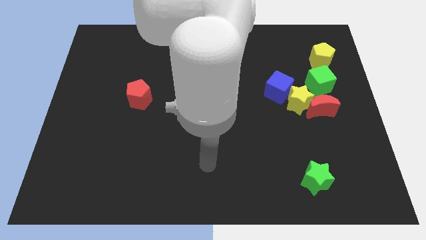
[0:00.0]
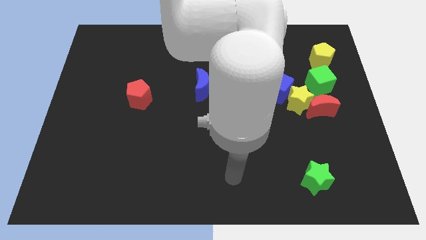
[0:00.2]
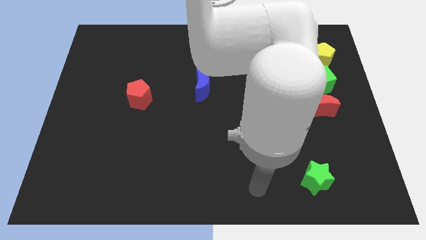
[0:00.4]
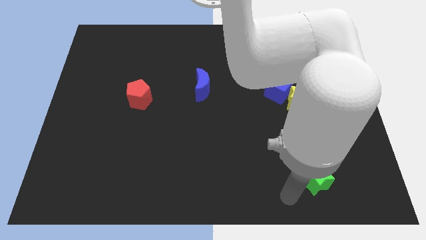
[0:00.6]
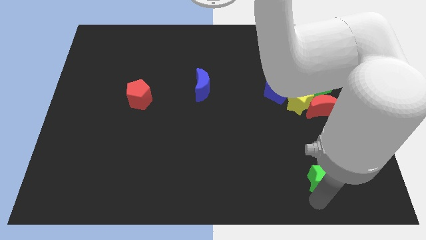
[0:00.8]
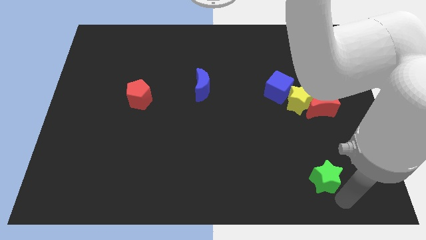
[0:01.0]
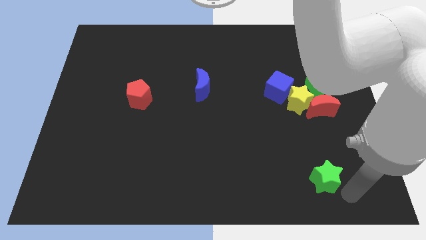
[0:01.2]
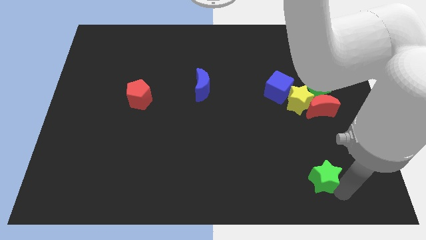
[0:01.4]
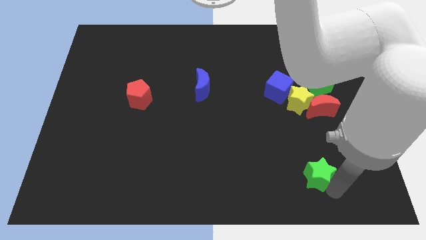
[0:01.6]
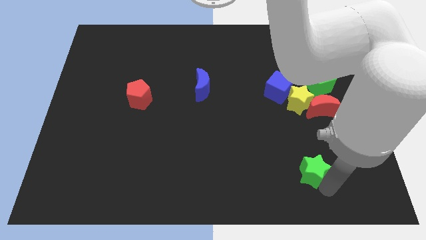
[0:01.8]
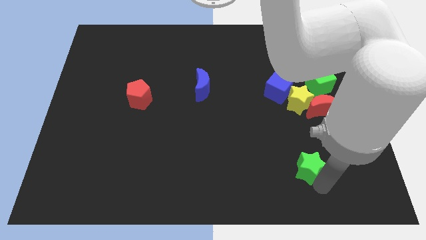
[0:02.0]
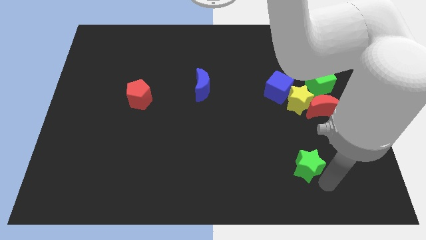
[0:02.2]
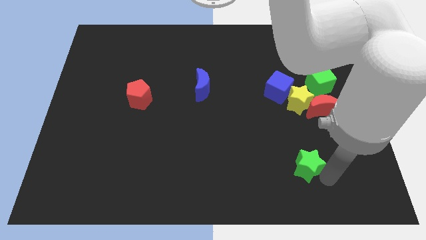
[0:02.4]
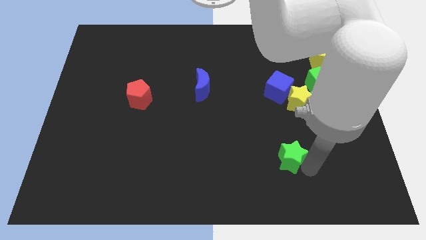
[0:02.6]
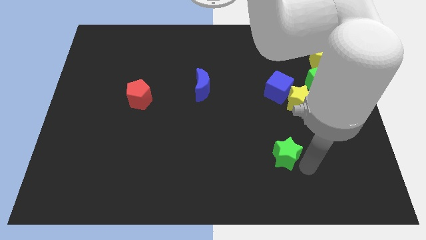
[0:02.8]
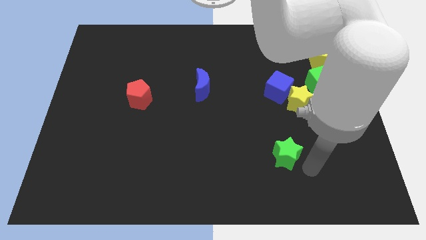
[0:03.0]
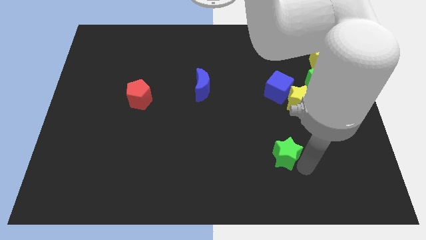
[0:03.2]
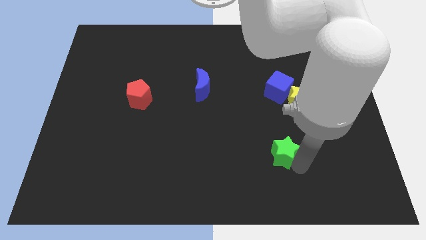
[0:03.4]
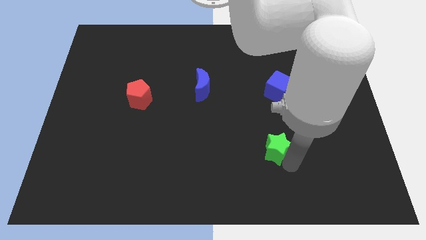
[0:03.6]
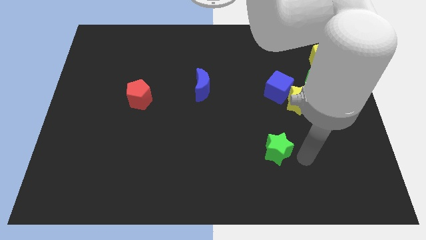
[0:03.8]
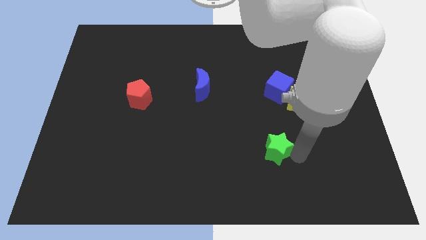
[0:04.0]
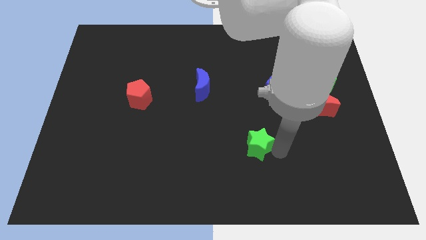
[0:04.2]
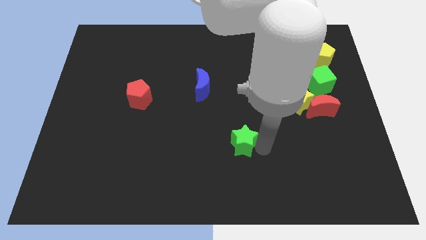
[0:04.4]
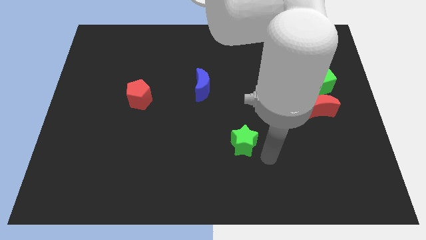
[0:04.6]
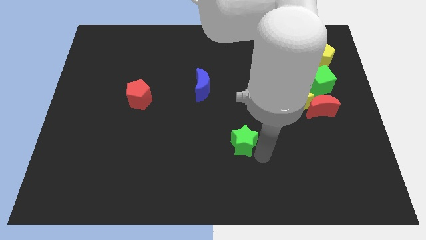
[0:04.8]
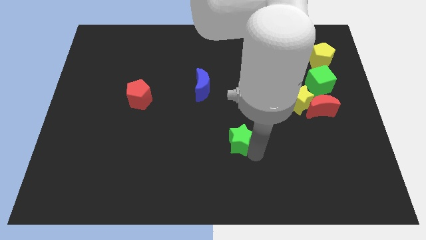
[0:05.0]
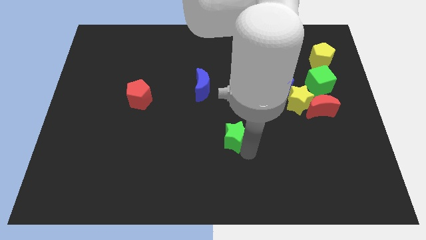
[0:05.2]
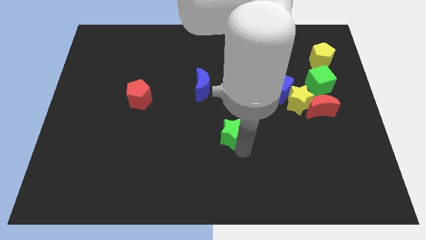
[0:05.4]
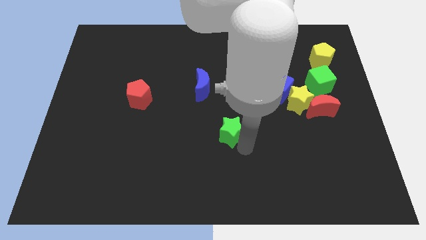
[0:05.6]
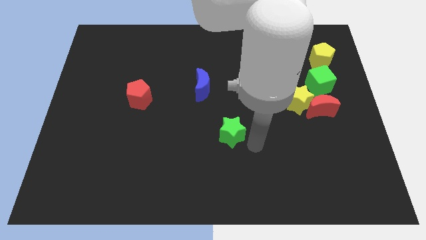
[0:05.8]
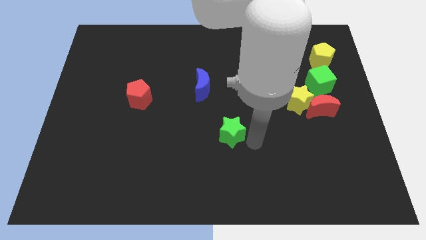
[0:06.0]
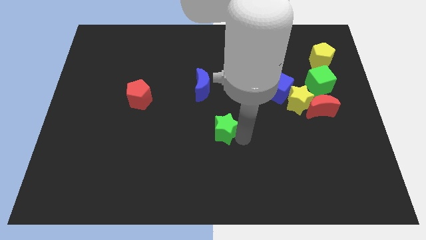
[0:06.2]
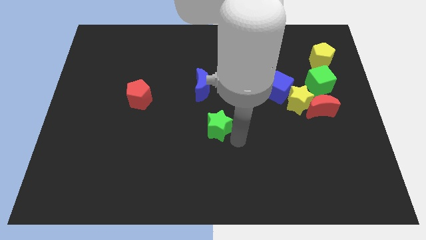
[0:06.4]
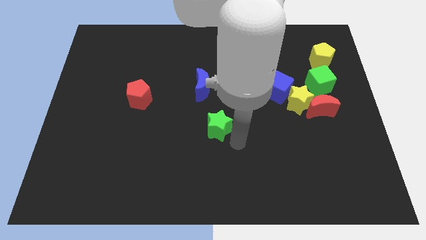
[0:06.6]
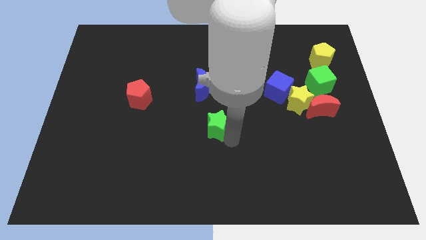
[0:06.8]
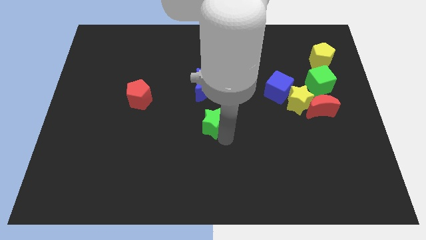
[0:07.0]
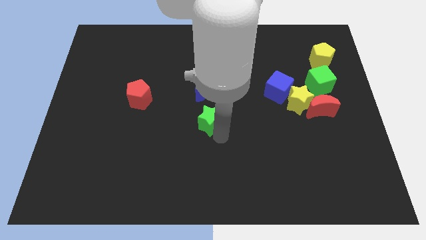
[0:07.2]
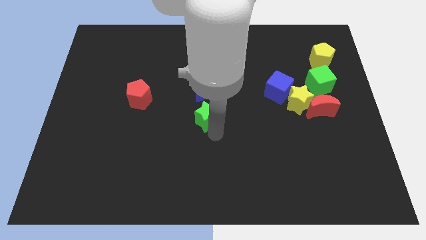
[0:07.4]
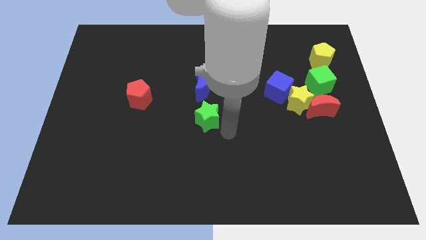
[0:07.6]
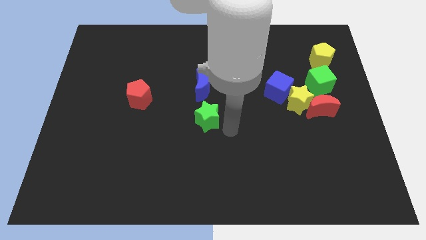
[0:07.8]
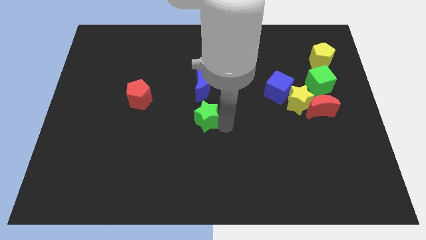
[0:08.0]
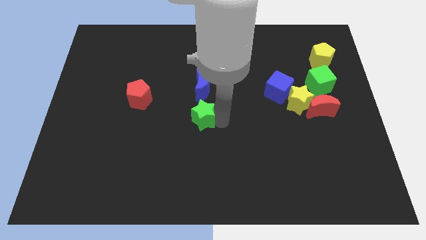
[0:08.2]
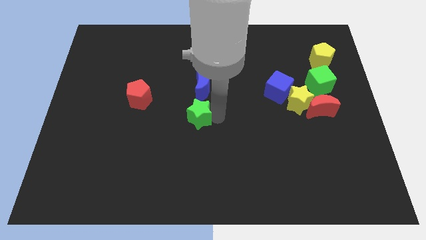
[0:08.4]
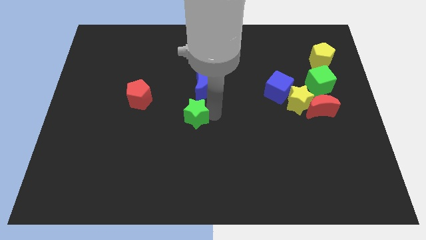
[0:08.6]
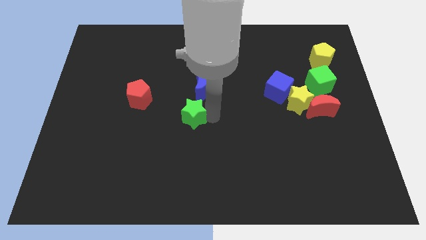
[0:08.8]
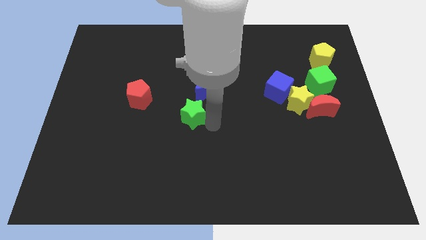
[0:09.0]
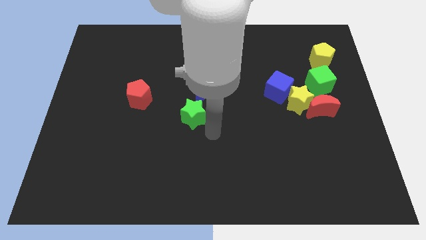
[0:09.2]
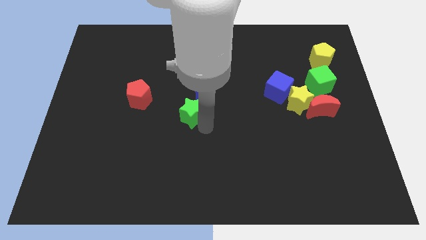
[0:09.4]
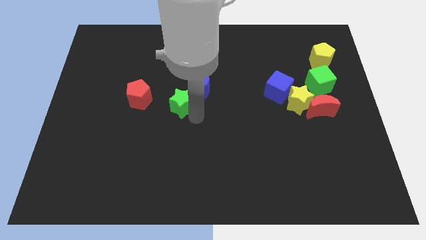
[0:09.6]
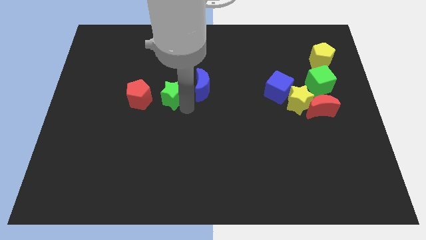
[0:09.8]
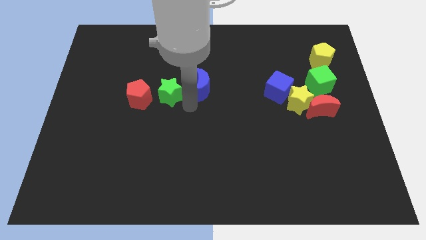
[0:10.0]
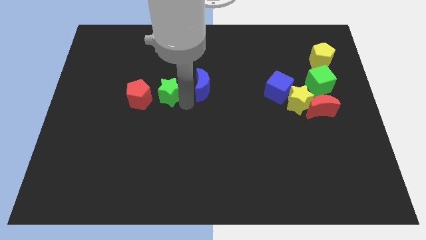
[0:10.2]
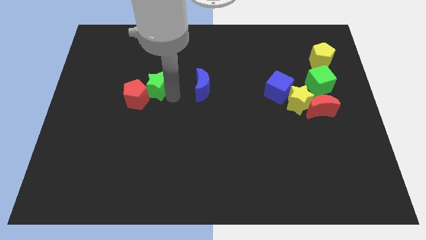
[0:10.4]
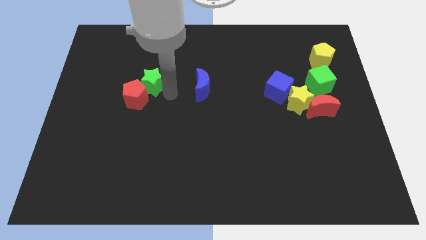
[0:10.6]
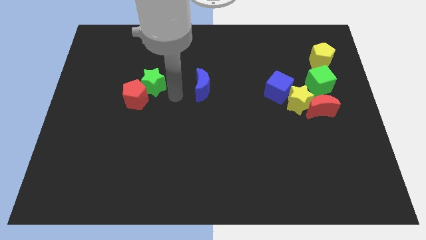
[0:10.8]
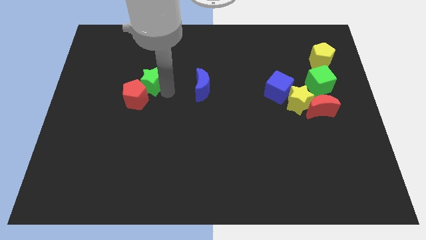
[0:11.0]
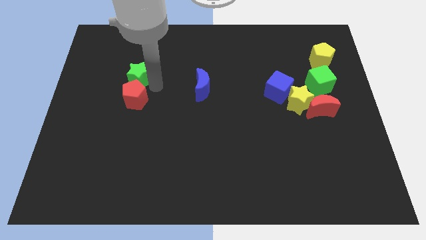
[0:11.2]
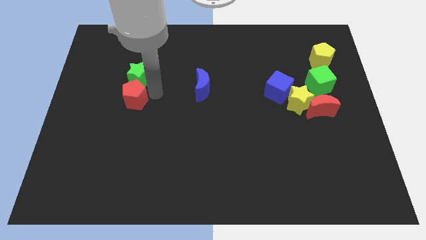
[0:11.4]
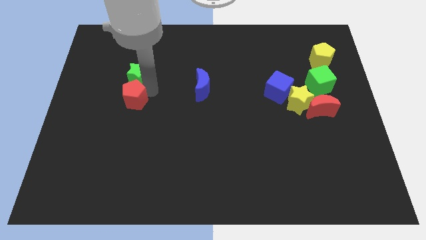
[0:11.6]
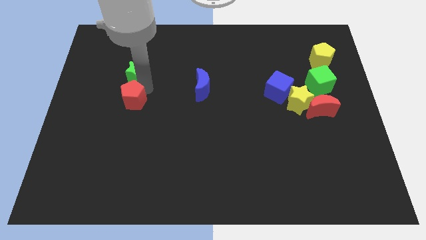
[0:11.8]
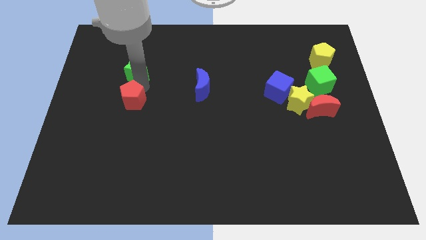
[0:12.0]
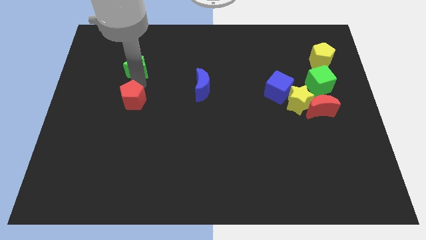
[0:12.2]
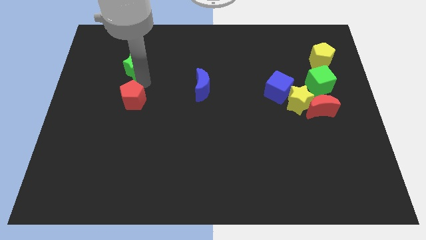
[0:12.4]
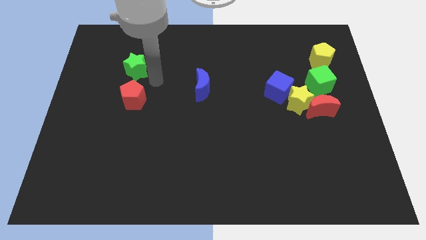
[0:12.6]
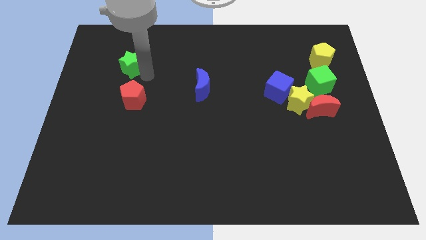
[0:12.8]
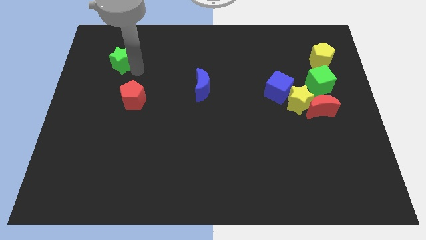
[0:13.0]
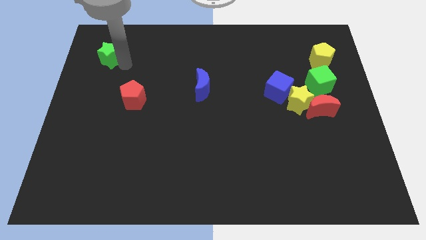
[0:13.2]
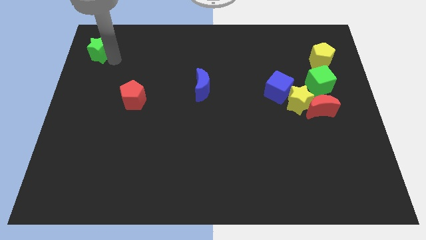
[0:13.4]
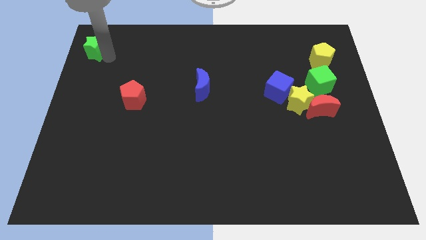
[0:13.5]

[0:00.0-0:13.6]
put the green star to the upper left corner

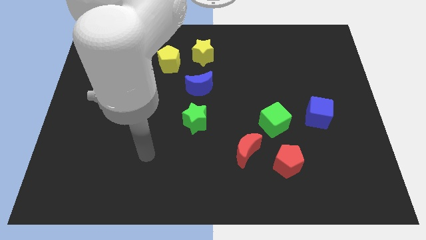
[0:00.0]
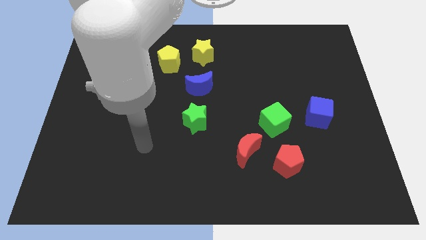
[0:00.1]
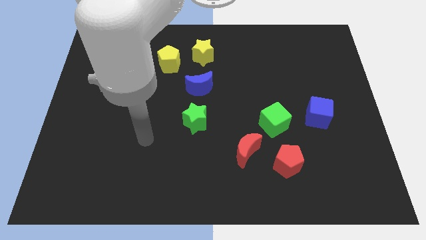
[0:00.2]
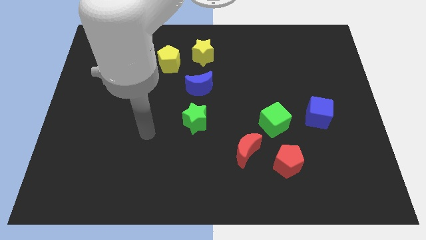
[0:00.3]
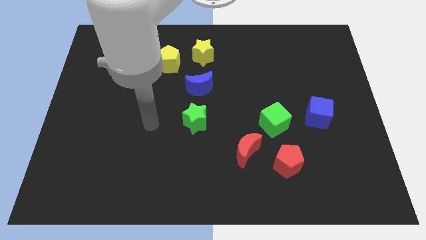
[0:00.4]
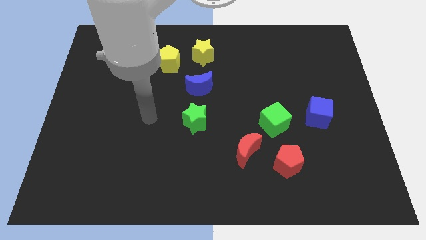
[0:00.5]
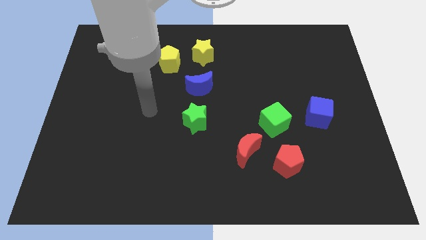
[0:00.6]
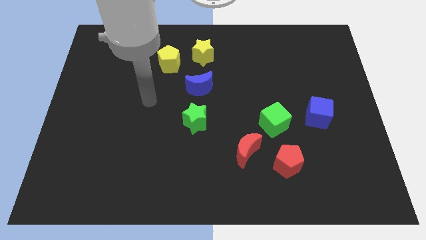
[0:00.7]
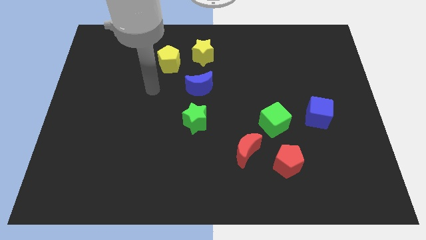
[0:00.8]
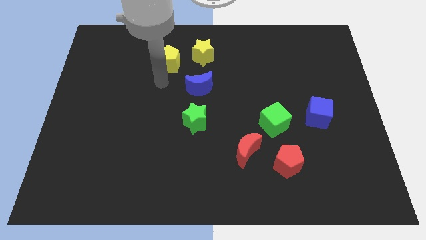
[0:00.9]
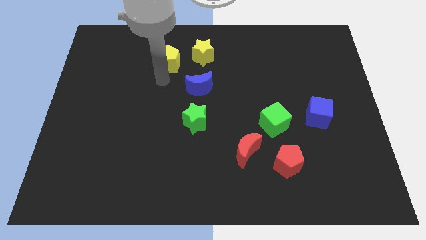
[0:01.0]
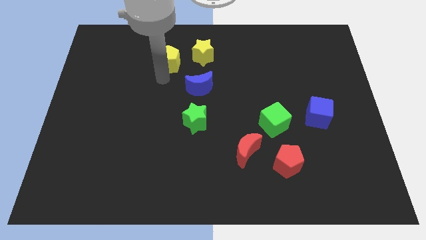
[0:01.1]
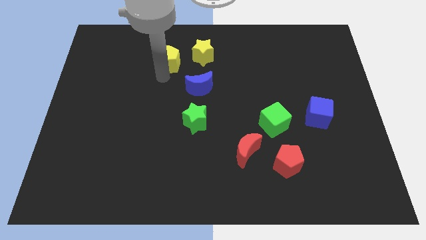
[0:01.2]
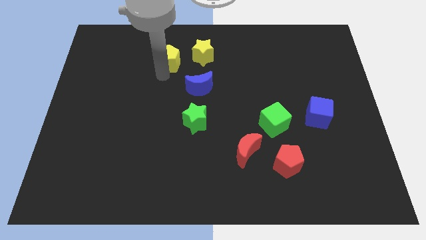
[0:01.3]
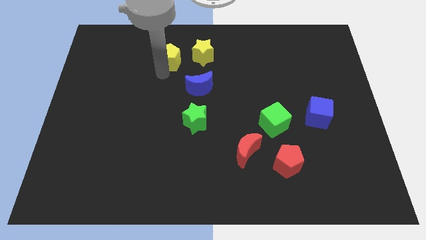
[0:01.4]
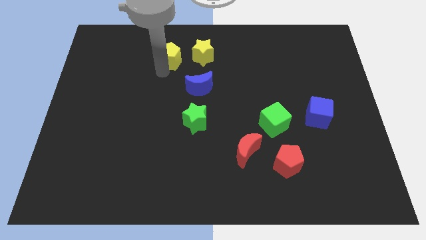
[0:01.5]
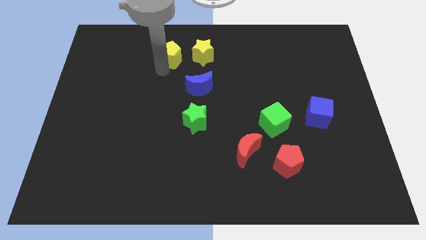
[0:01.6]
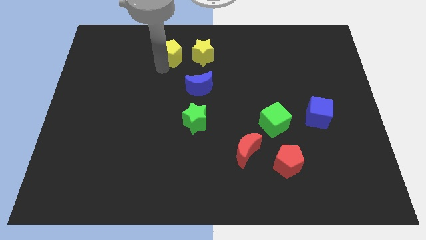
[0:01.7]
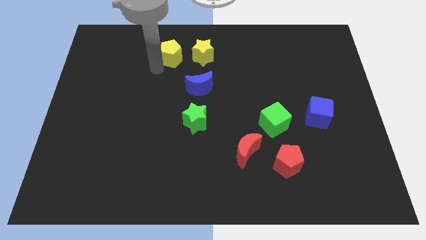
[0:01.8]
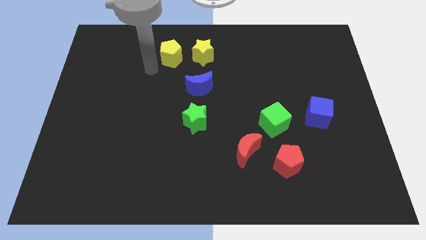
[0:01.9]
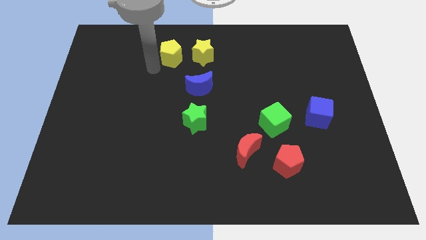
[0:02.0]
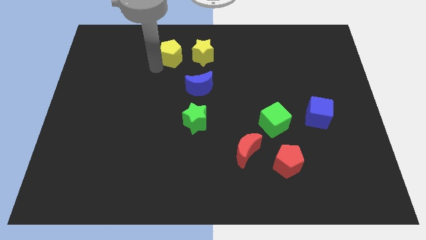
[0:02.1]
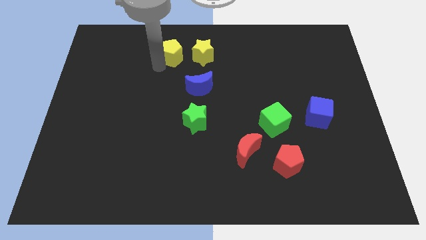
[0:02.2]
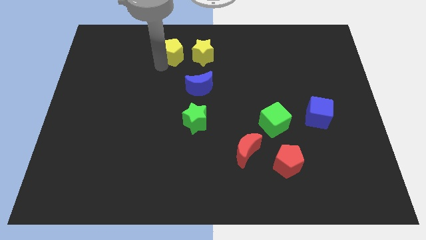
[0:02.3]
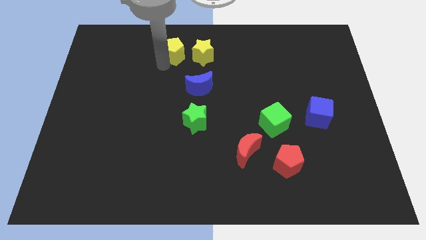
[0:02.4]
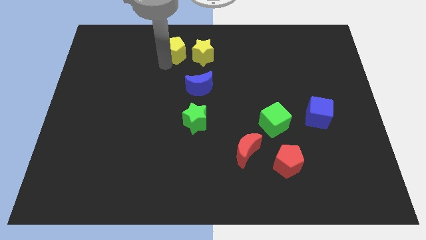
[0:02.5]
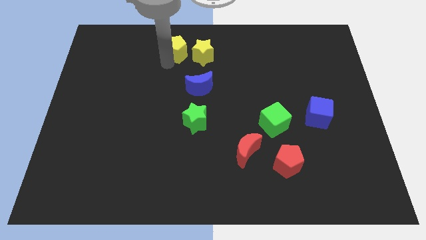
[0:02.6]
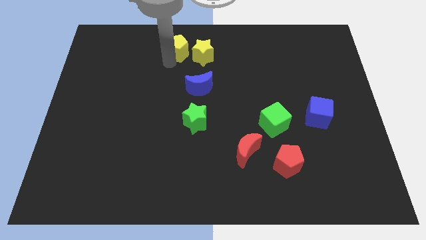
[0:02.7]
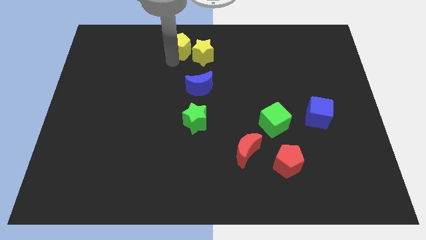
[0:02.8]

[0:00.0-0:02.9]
push the yellow pentagon to the top side
